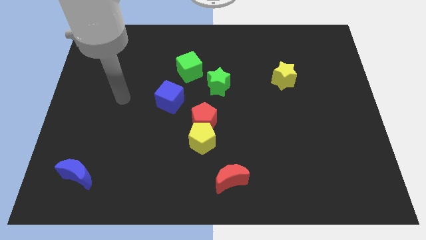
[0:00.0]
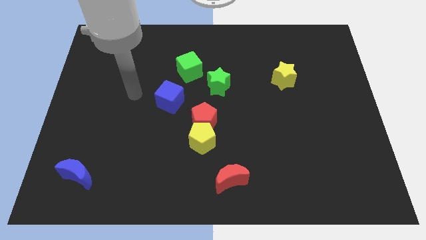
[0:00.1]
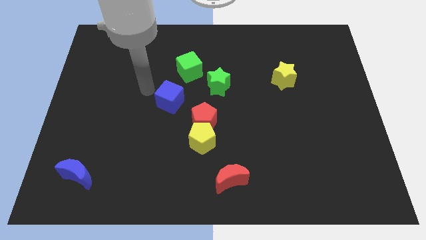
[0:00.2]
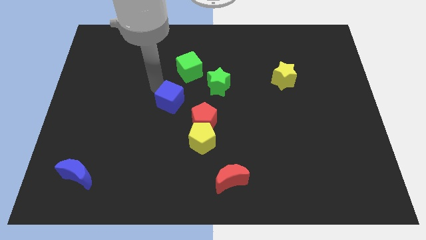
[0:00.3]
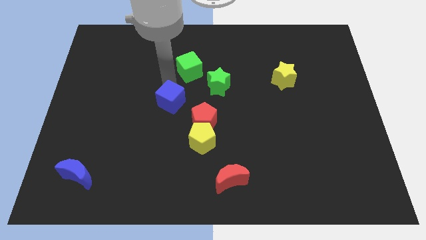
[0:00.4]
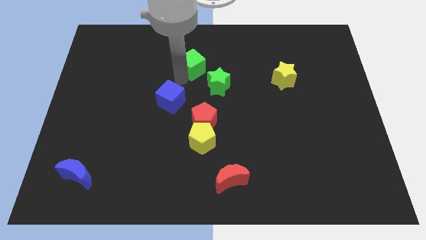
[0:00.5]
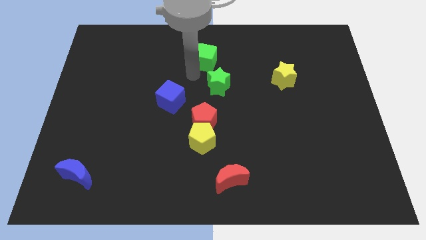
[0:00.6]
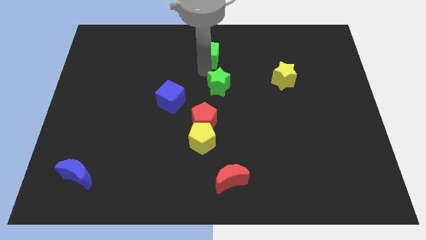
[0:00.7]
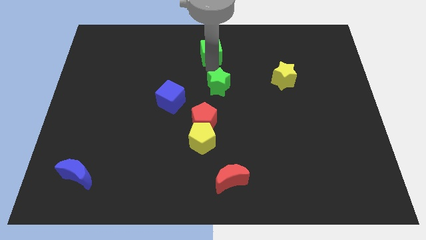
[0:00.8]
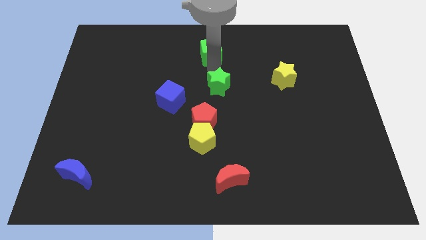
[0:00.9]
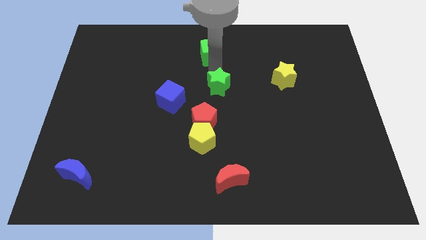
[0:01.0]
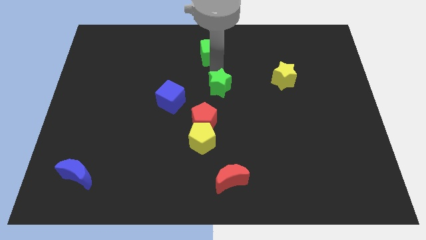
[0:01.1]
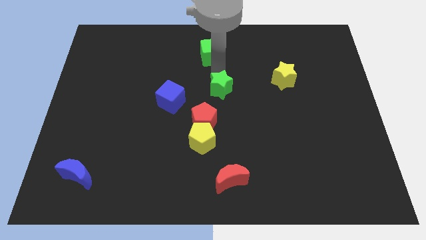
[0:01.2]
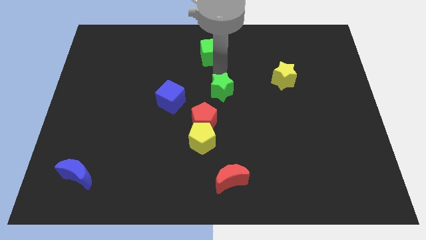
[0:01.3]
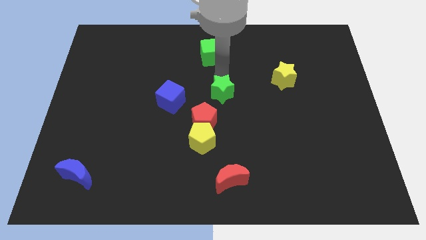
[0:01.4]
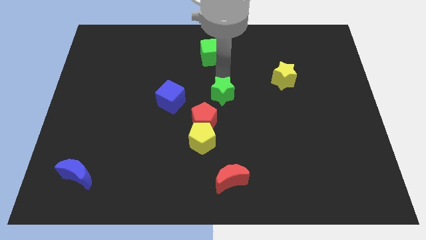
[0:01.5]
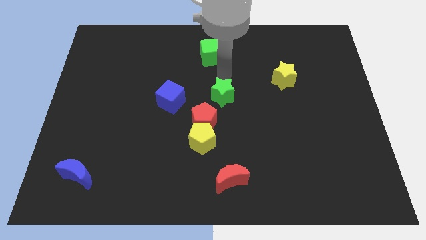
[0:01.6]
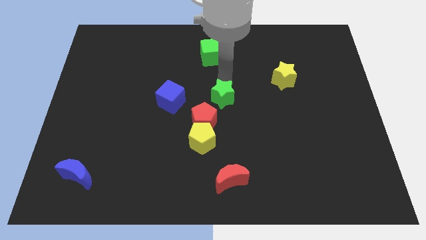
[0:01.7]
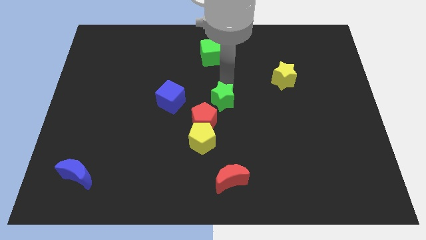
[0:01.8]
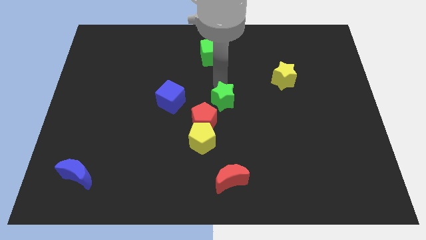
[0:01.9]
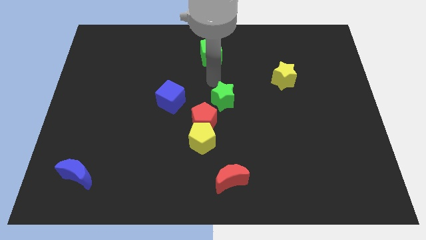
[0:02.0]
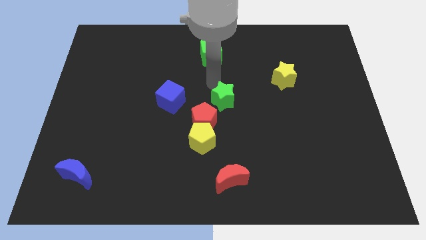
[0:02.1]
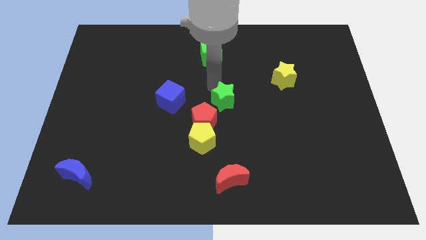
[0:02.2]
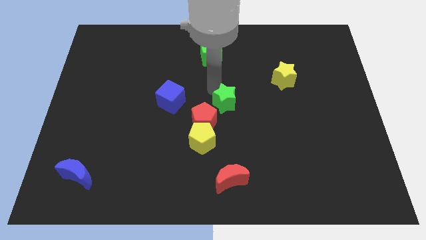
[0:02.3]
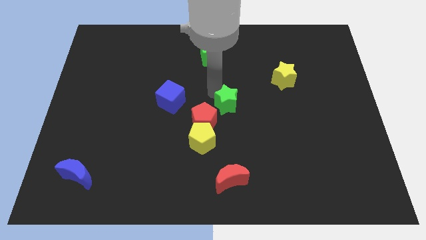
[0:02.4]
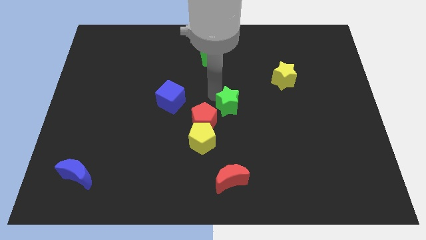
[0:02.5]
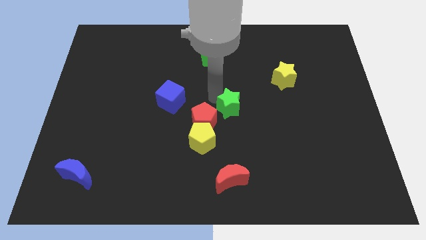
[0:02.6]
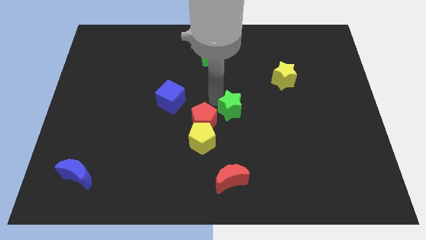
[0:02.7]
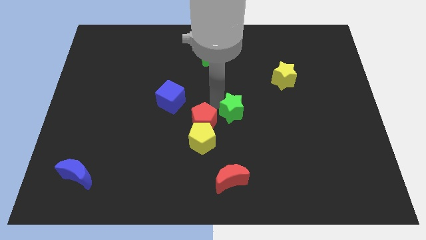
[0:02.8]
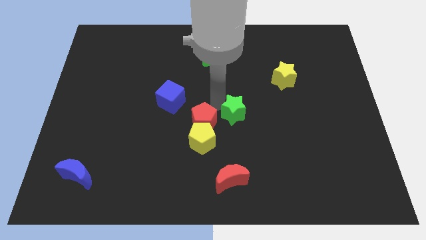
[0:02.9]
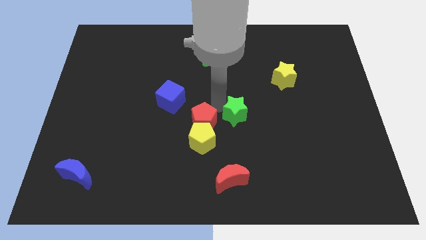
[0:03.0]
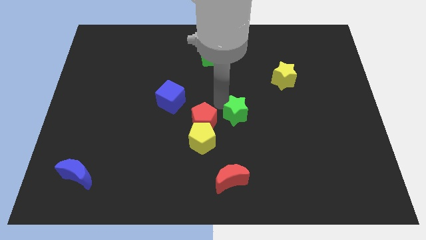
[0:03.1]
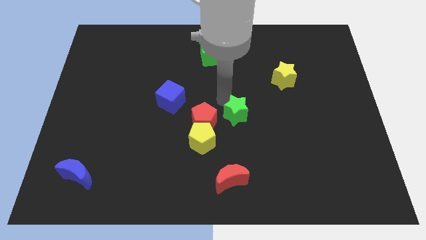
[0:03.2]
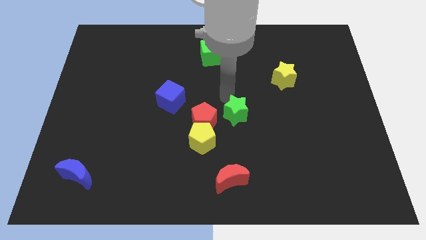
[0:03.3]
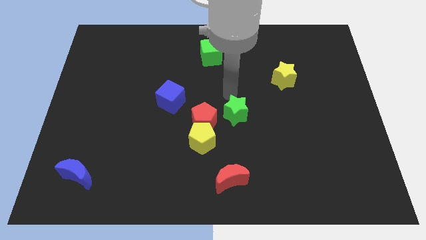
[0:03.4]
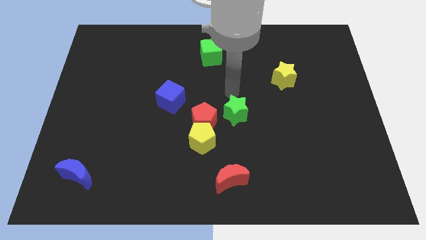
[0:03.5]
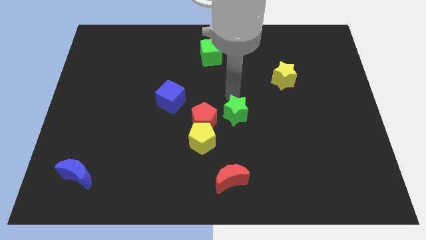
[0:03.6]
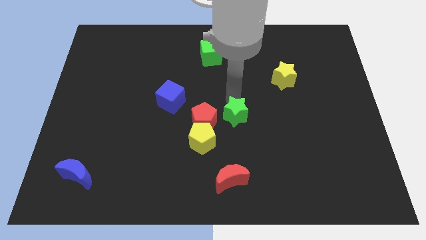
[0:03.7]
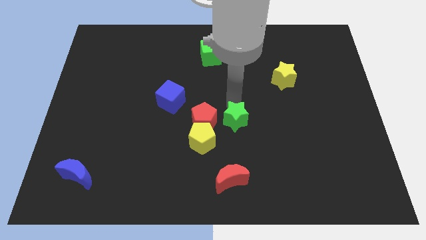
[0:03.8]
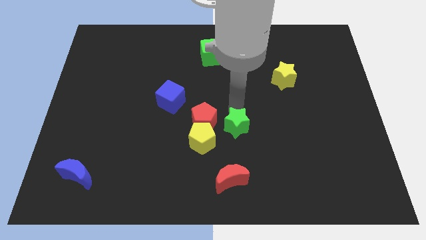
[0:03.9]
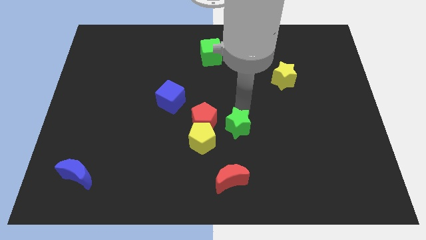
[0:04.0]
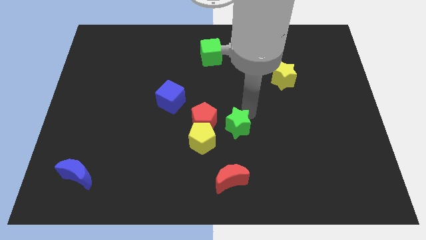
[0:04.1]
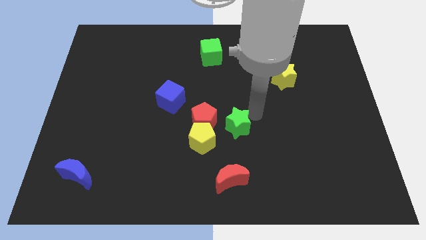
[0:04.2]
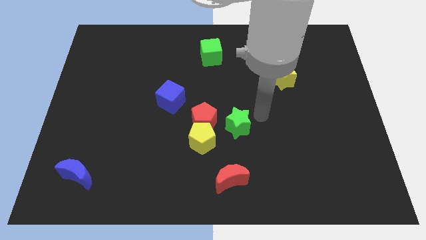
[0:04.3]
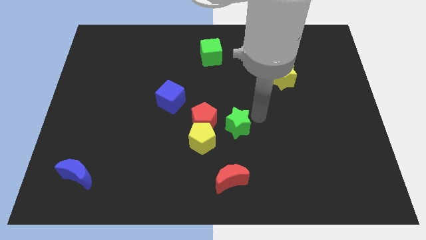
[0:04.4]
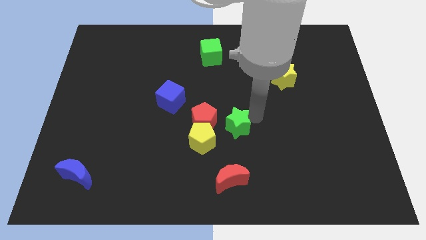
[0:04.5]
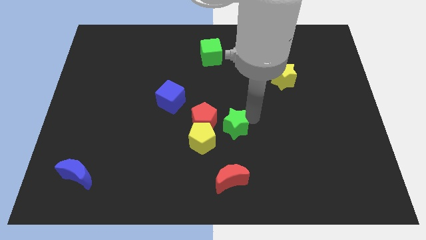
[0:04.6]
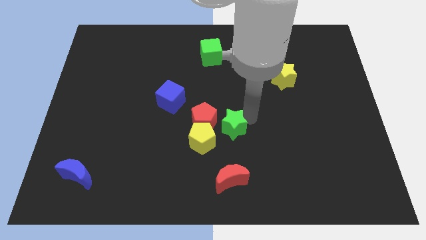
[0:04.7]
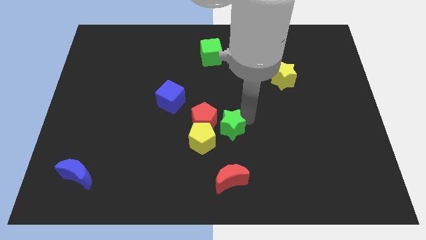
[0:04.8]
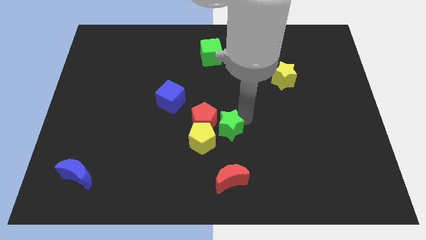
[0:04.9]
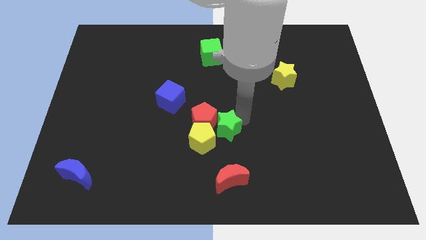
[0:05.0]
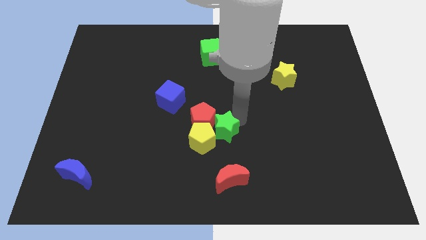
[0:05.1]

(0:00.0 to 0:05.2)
push the green star close to the yellow pentagon

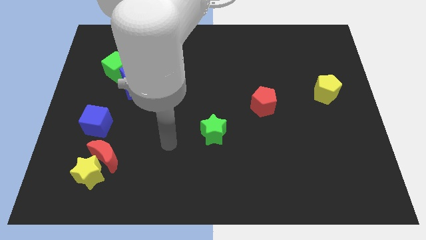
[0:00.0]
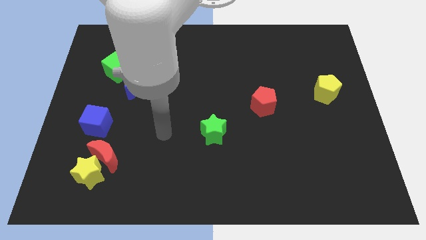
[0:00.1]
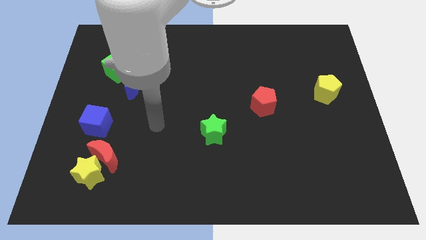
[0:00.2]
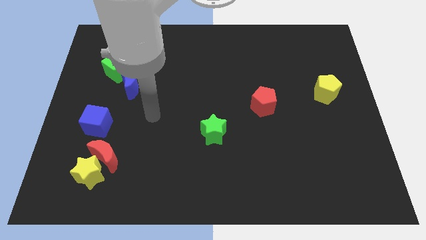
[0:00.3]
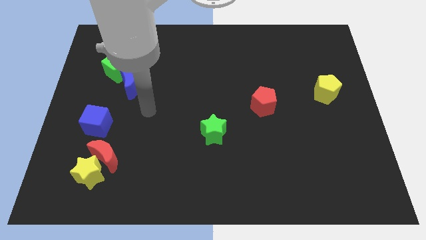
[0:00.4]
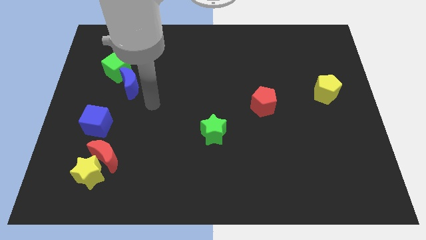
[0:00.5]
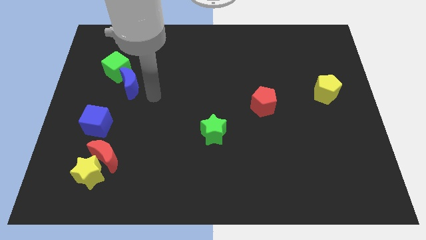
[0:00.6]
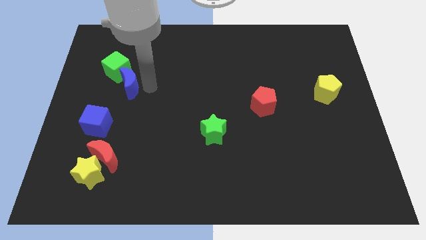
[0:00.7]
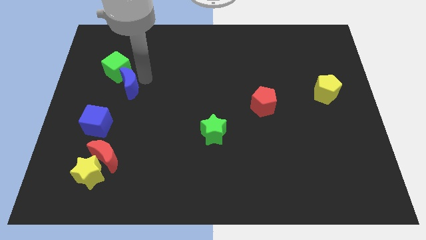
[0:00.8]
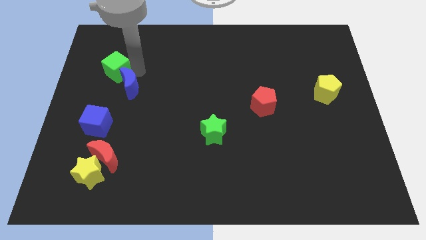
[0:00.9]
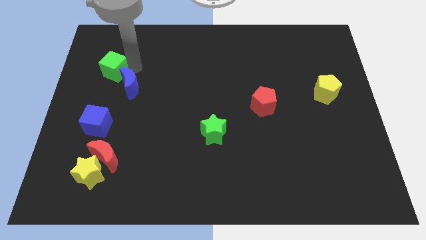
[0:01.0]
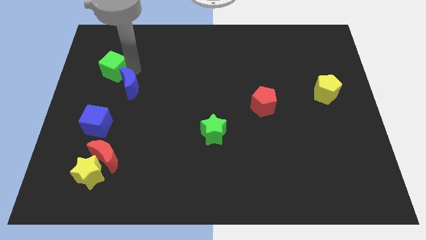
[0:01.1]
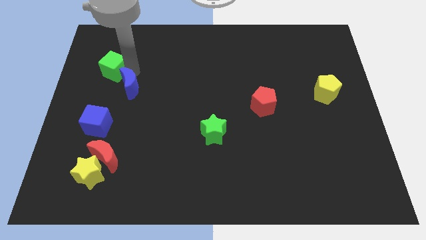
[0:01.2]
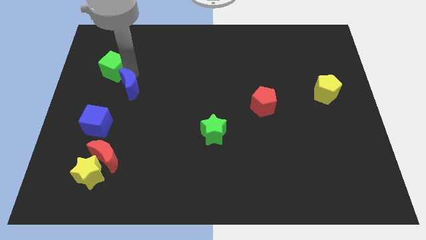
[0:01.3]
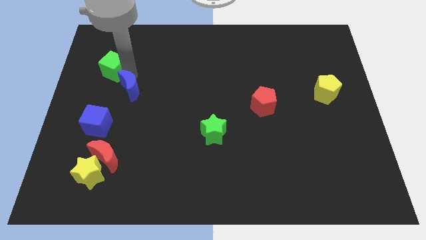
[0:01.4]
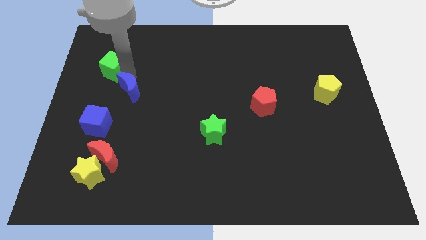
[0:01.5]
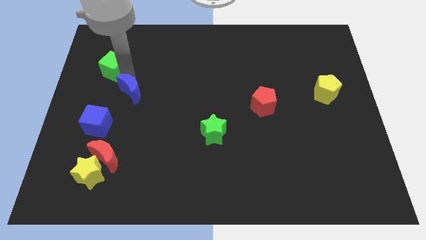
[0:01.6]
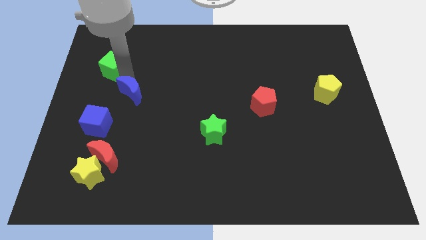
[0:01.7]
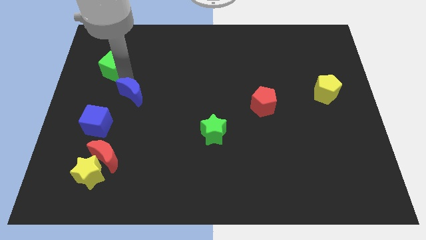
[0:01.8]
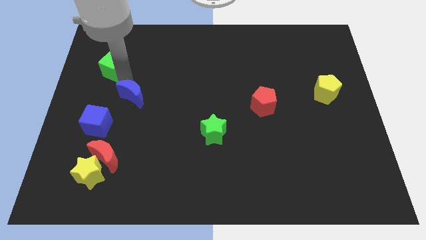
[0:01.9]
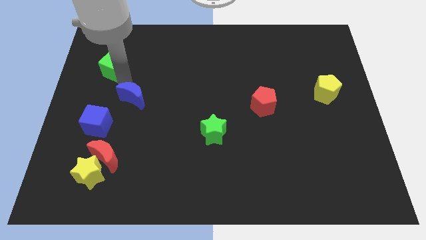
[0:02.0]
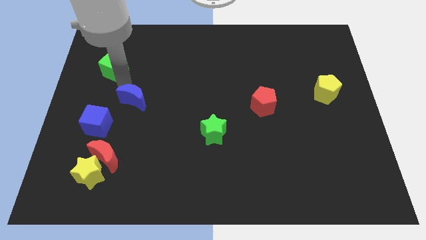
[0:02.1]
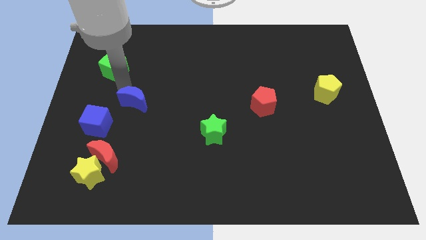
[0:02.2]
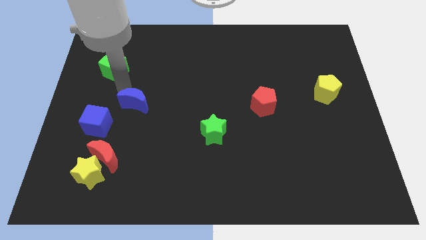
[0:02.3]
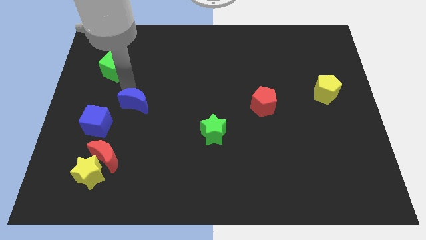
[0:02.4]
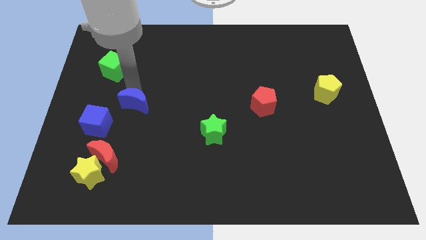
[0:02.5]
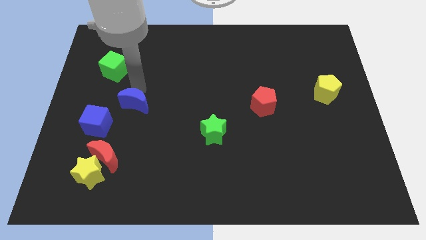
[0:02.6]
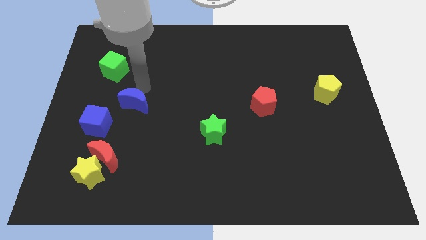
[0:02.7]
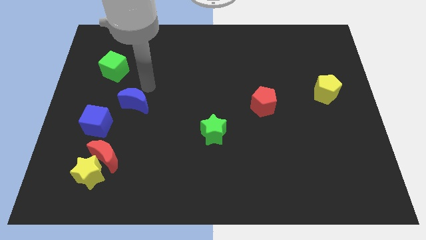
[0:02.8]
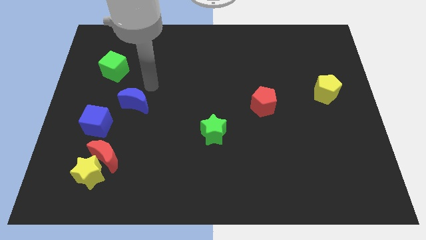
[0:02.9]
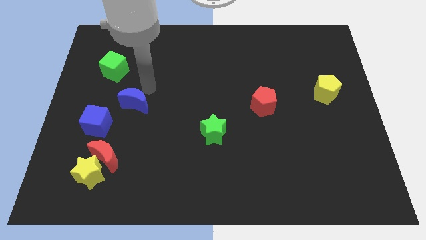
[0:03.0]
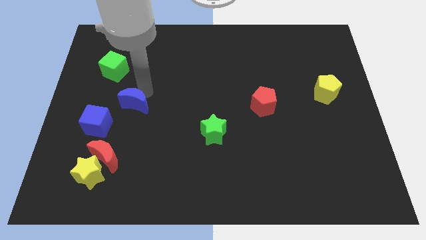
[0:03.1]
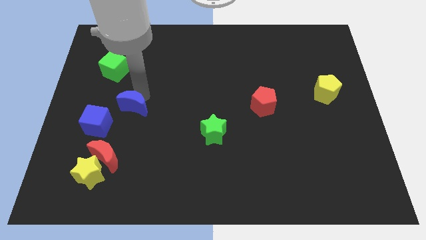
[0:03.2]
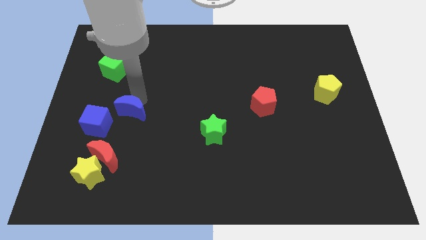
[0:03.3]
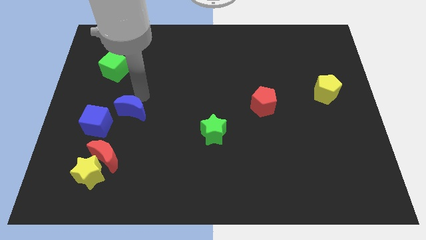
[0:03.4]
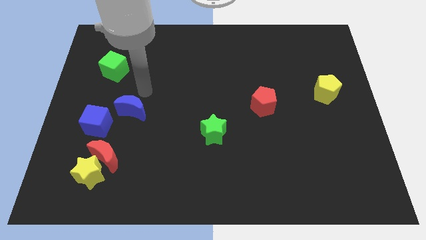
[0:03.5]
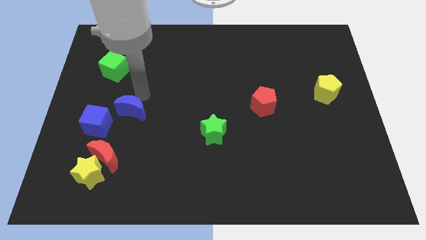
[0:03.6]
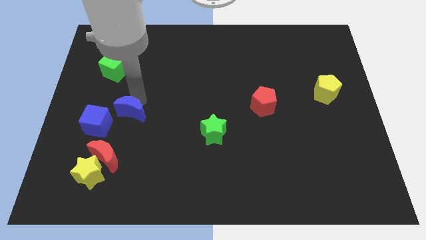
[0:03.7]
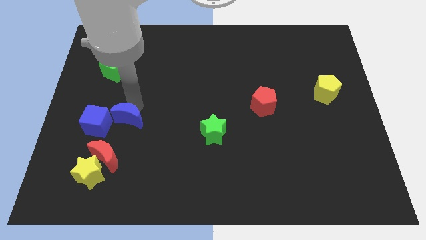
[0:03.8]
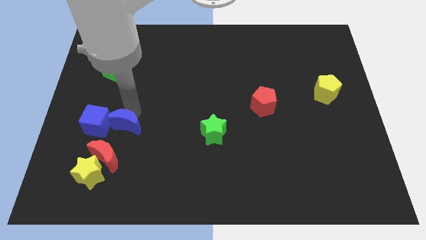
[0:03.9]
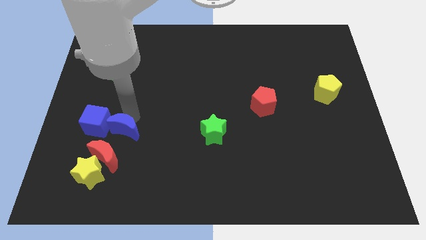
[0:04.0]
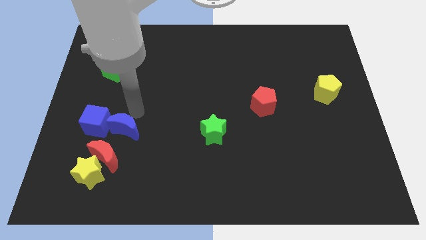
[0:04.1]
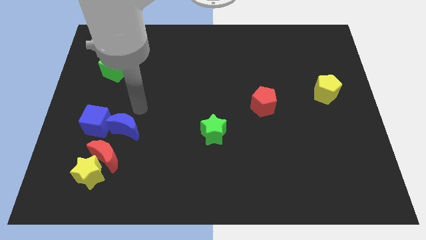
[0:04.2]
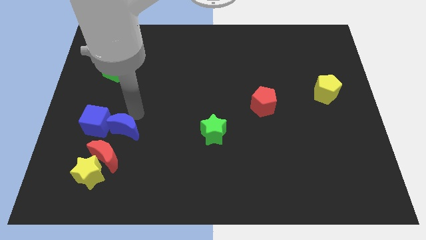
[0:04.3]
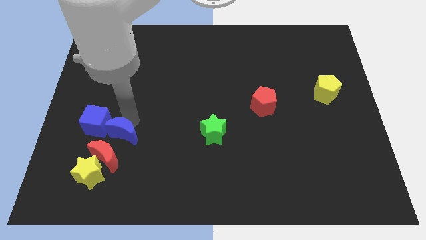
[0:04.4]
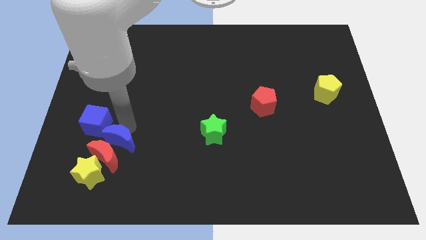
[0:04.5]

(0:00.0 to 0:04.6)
slide the blue moon next to the red moon
